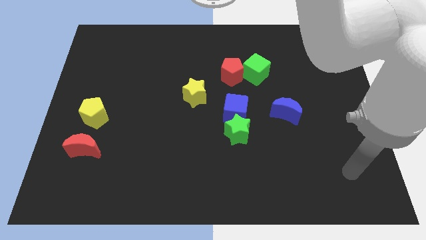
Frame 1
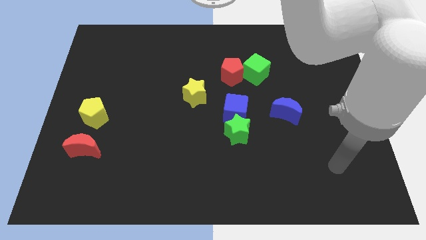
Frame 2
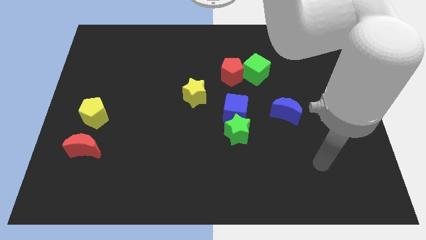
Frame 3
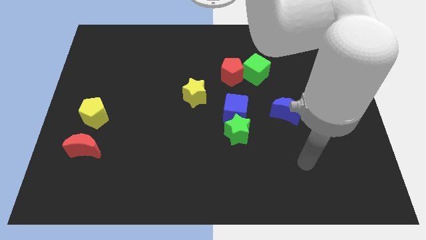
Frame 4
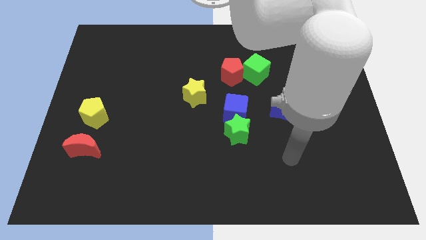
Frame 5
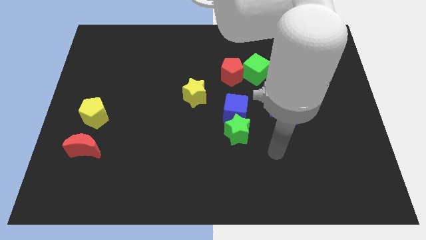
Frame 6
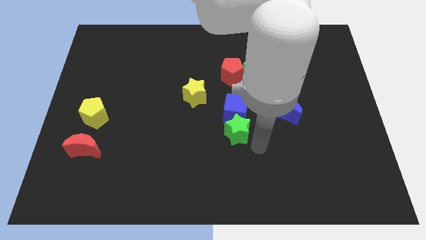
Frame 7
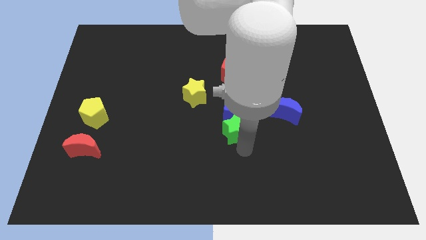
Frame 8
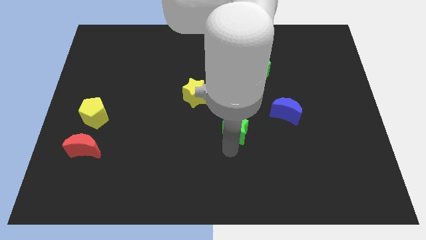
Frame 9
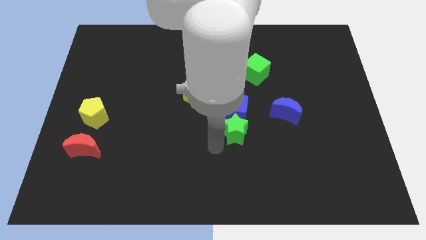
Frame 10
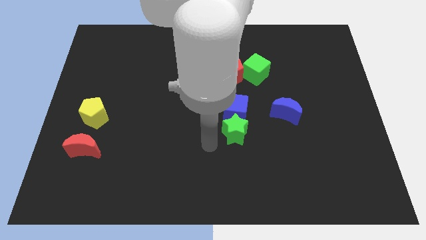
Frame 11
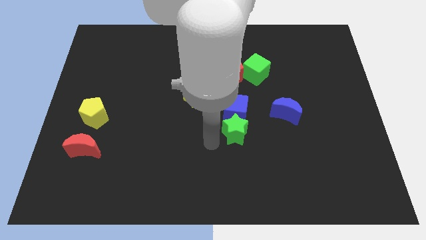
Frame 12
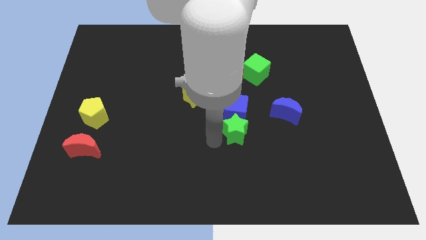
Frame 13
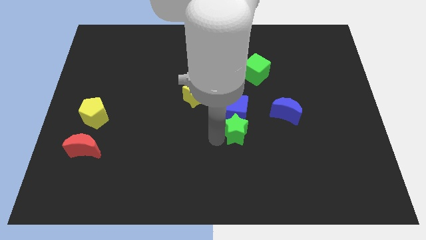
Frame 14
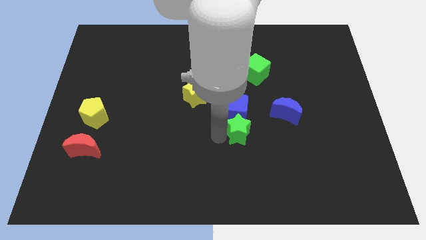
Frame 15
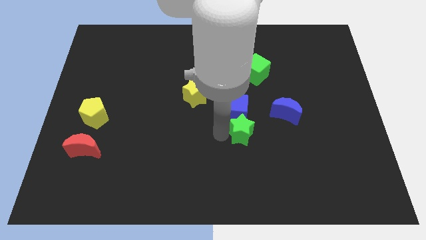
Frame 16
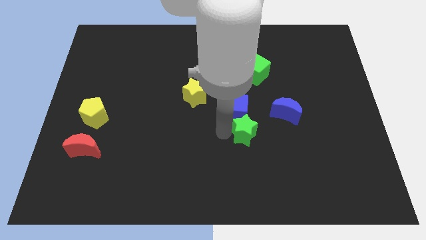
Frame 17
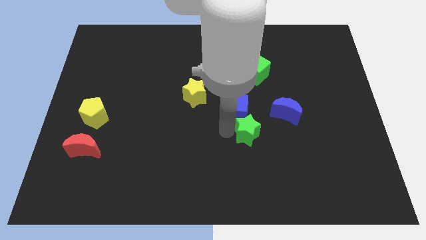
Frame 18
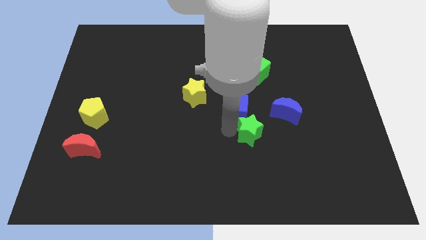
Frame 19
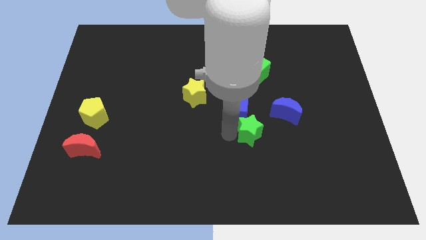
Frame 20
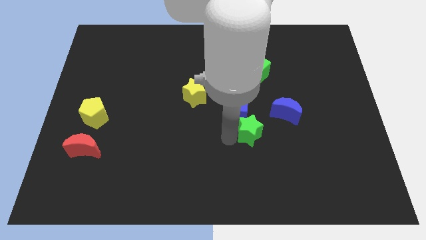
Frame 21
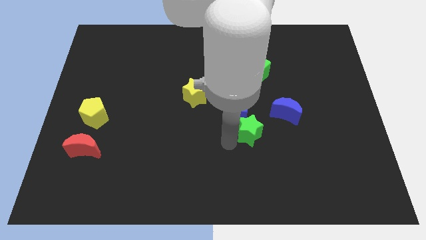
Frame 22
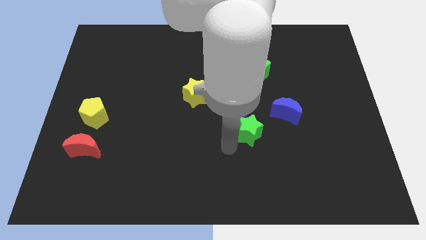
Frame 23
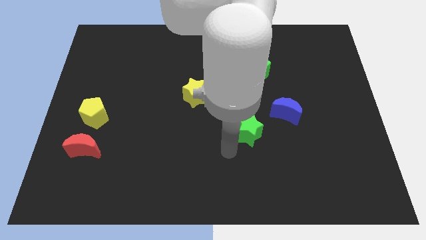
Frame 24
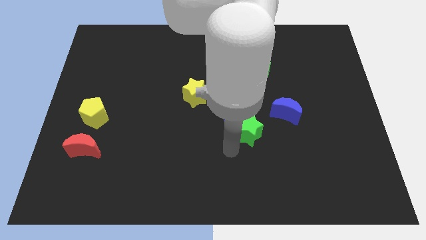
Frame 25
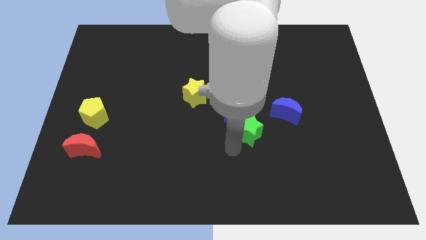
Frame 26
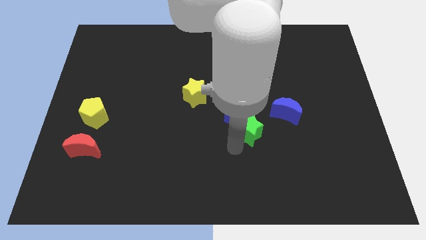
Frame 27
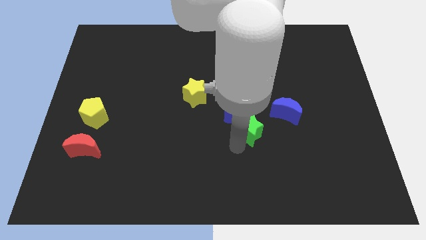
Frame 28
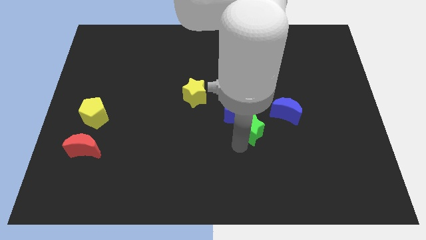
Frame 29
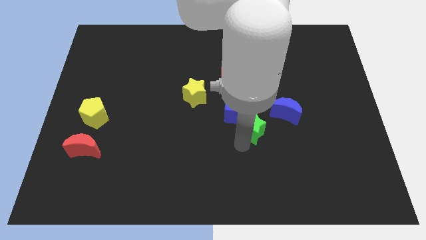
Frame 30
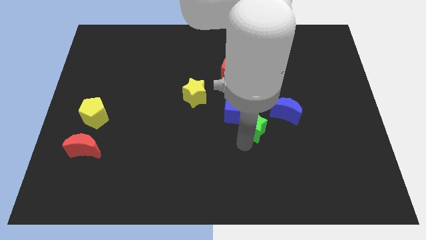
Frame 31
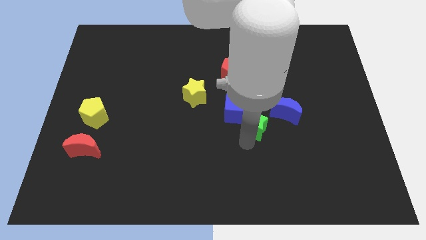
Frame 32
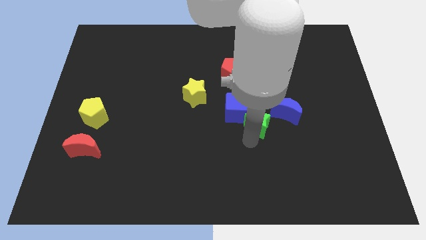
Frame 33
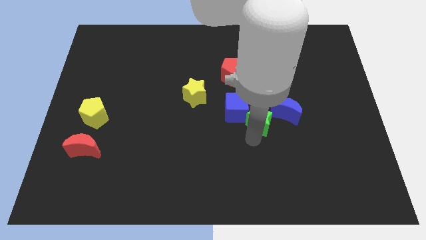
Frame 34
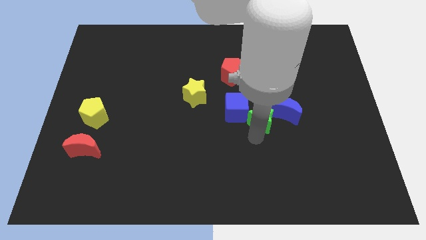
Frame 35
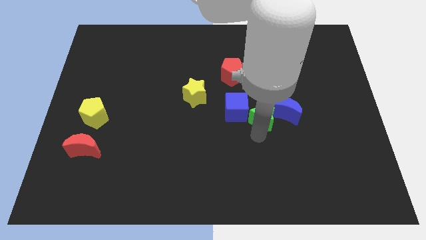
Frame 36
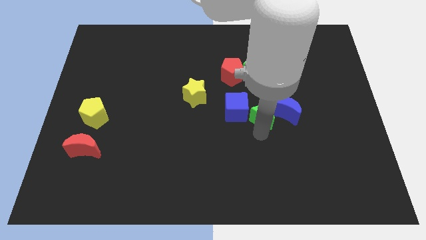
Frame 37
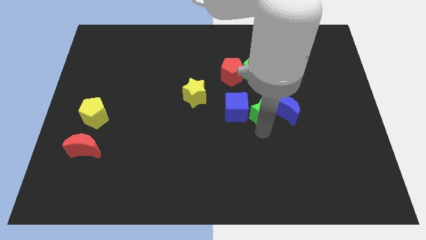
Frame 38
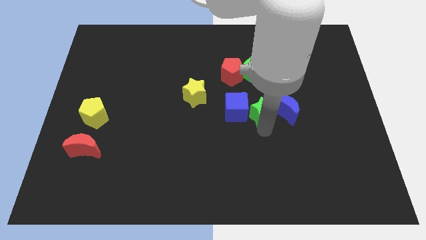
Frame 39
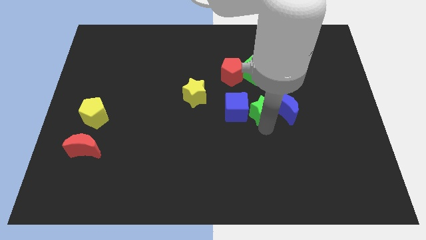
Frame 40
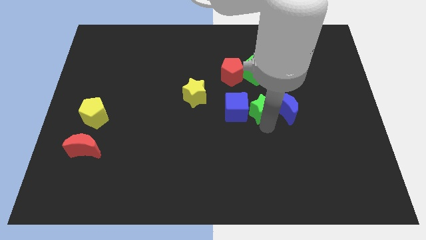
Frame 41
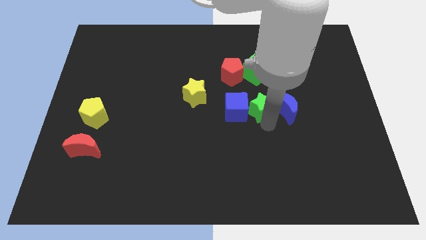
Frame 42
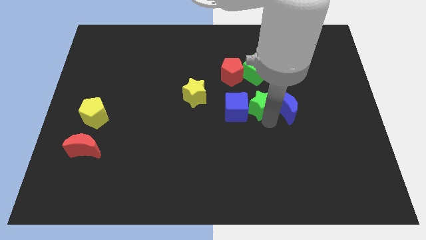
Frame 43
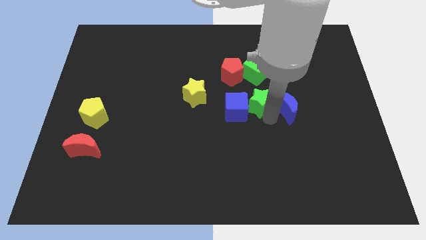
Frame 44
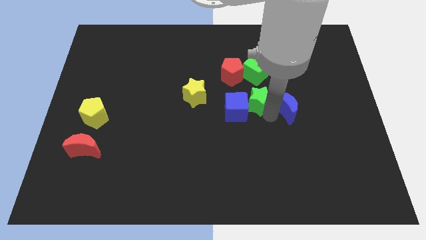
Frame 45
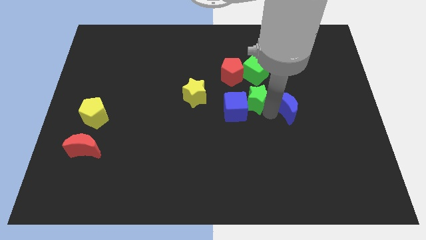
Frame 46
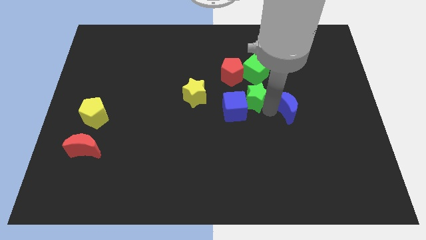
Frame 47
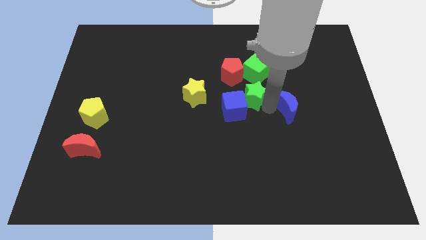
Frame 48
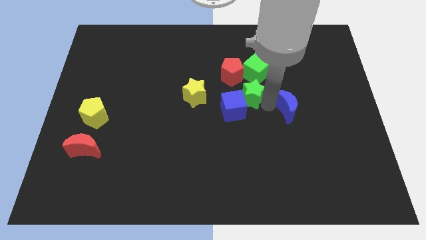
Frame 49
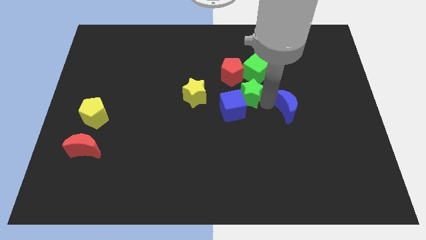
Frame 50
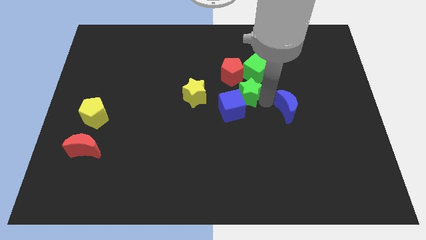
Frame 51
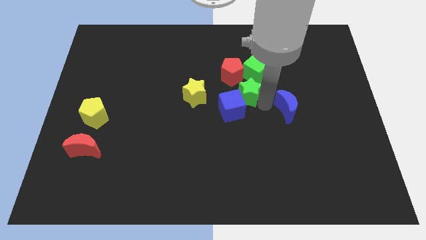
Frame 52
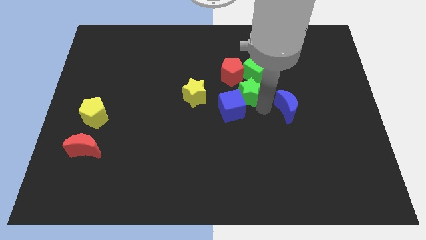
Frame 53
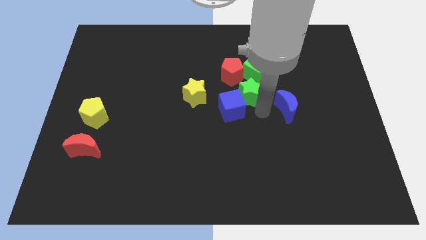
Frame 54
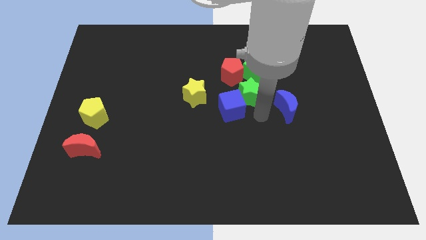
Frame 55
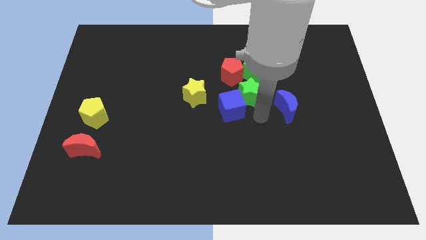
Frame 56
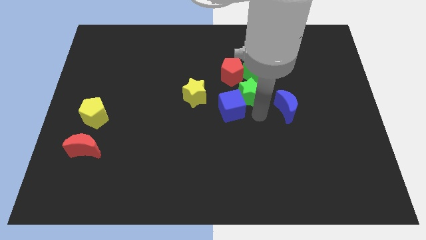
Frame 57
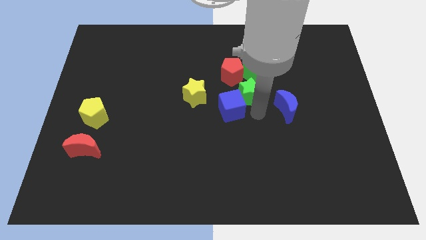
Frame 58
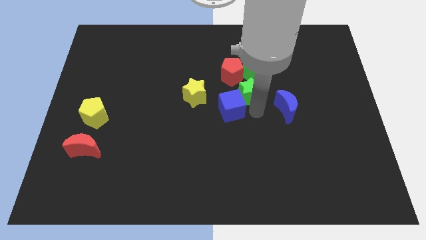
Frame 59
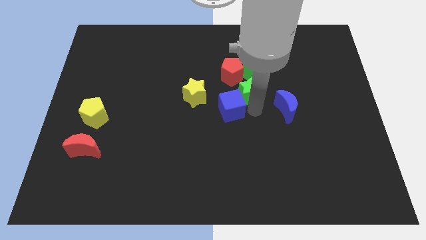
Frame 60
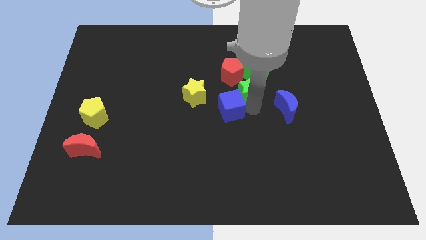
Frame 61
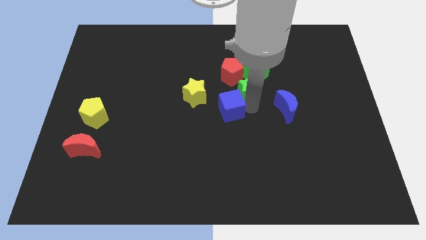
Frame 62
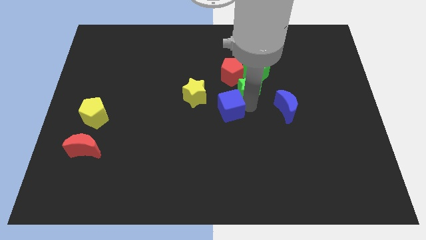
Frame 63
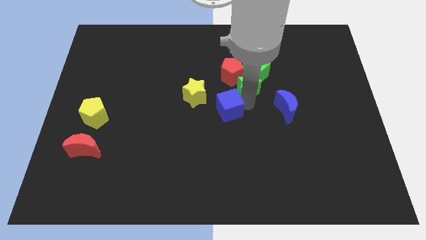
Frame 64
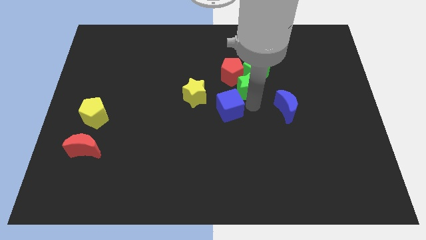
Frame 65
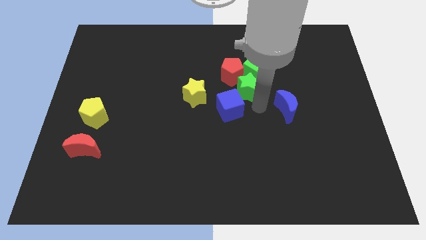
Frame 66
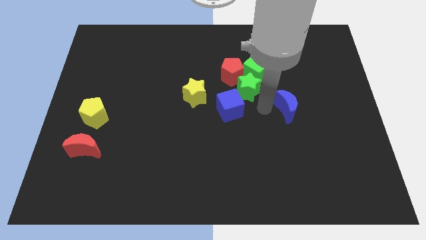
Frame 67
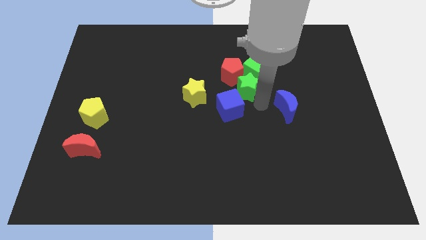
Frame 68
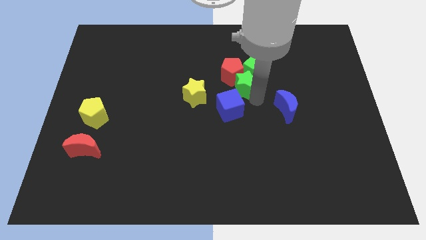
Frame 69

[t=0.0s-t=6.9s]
push the green star close to the red pentagon
